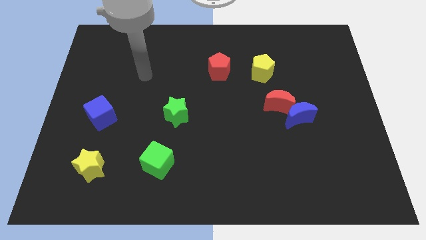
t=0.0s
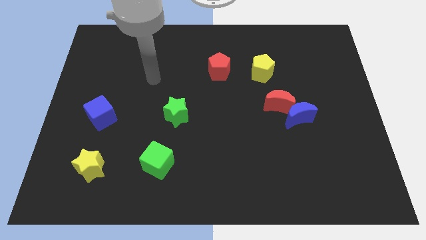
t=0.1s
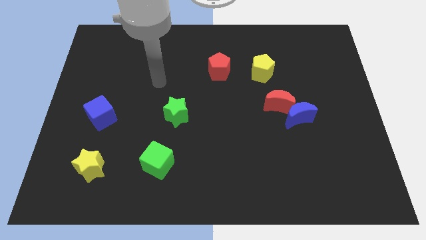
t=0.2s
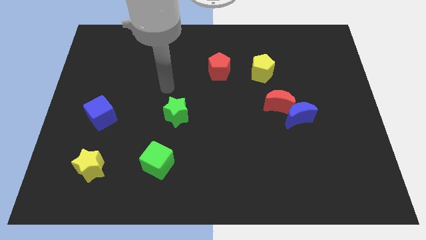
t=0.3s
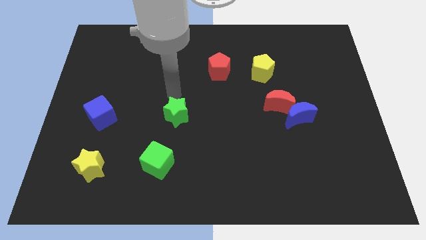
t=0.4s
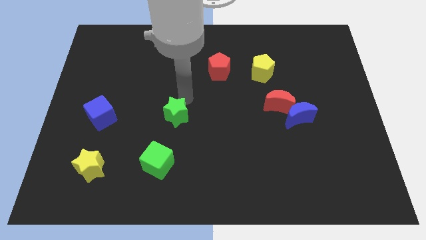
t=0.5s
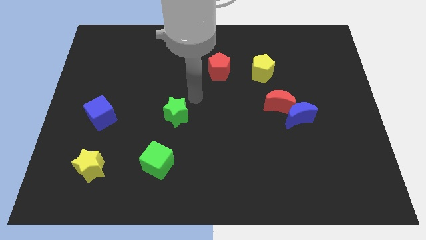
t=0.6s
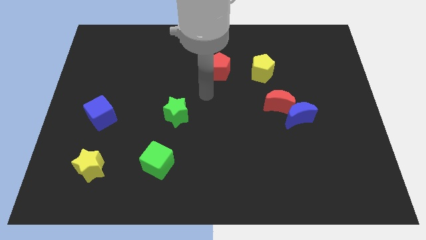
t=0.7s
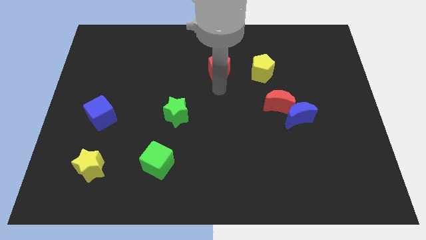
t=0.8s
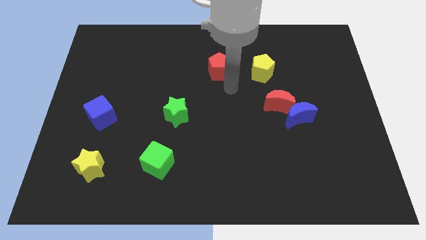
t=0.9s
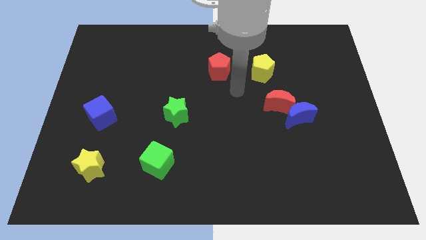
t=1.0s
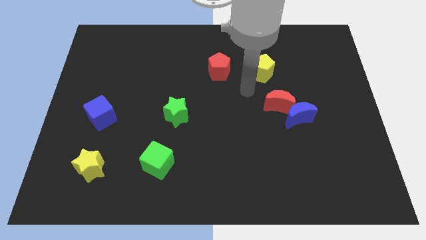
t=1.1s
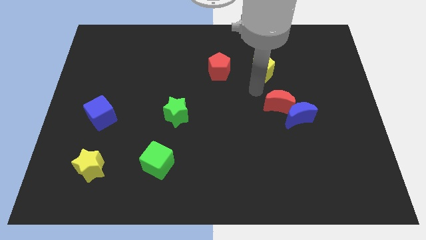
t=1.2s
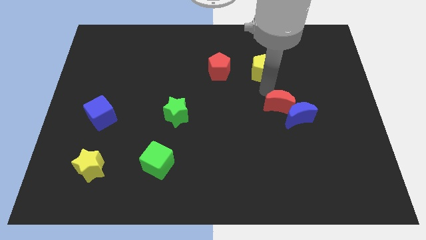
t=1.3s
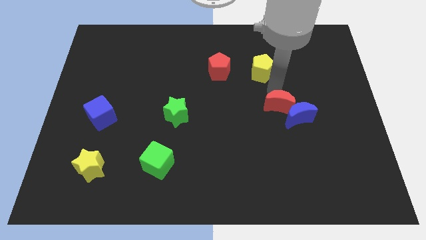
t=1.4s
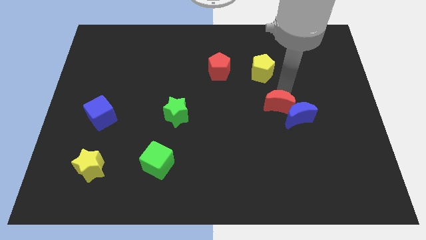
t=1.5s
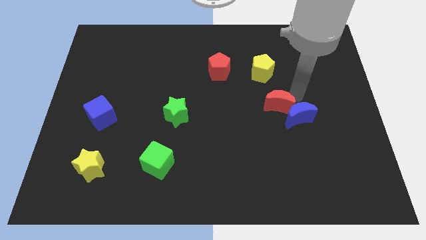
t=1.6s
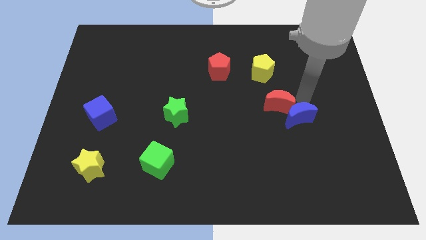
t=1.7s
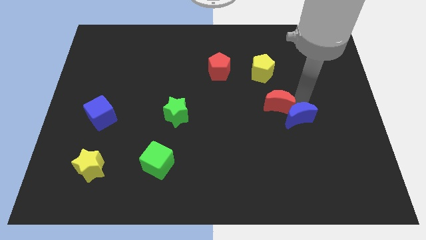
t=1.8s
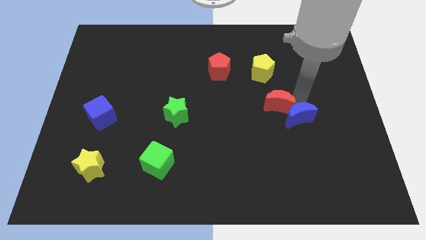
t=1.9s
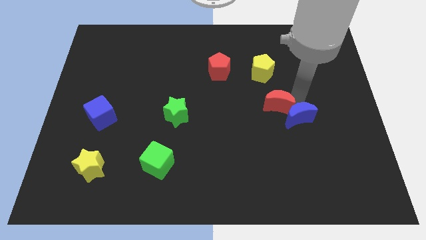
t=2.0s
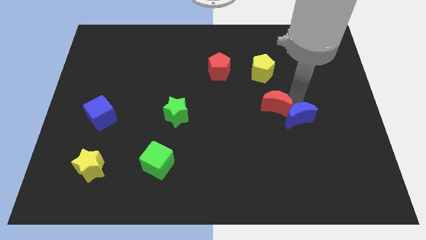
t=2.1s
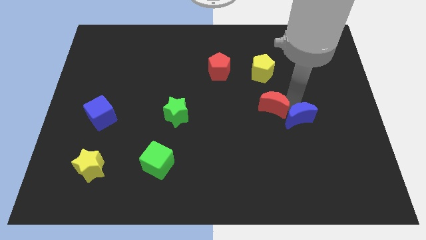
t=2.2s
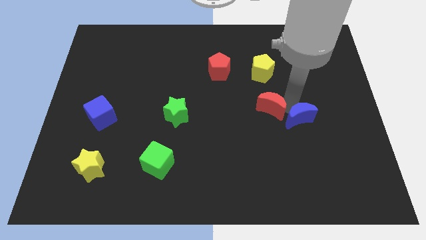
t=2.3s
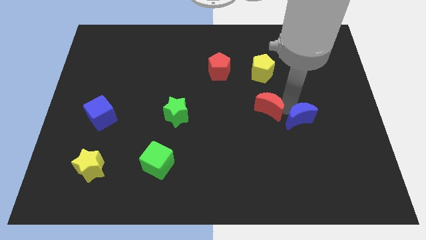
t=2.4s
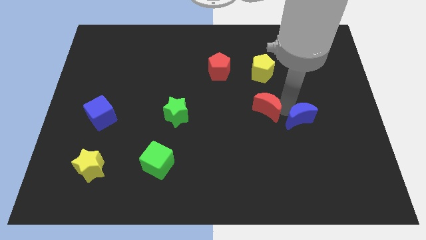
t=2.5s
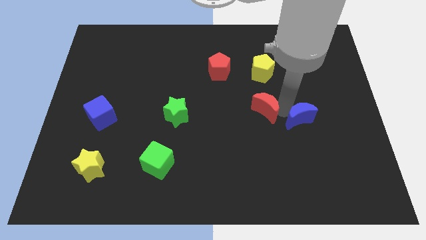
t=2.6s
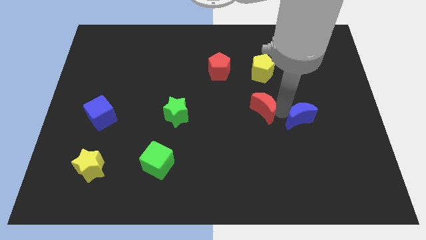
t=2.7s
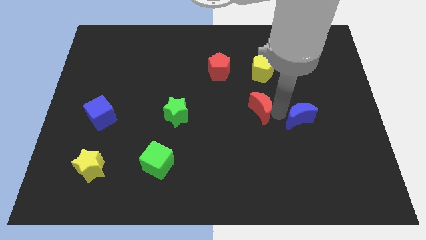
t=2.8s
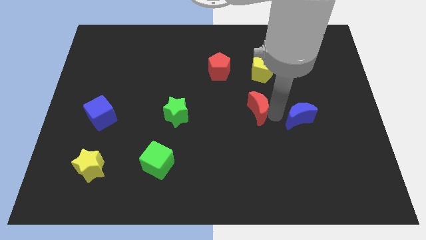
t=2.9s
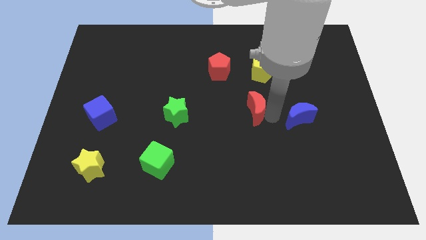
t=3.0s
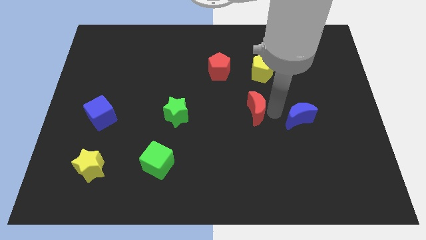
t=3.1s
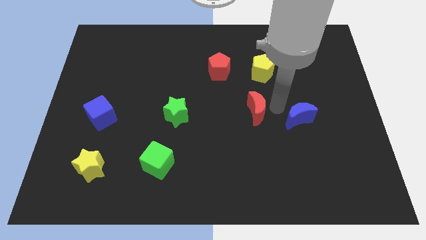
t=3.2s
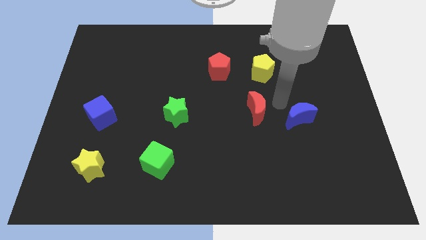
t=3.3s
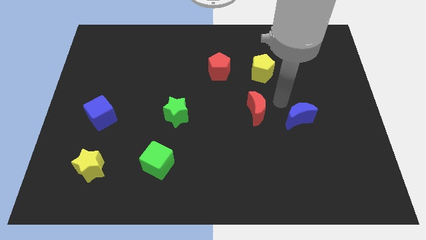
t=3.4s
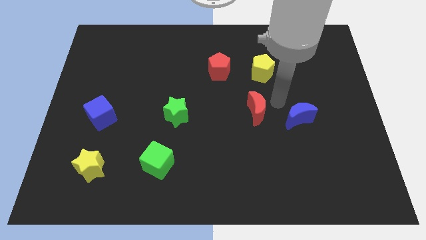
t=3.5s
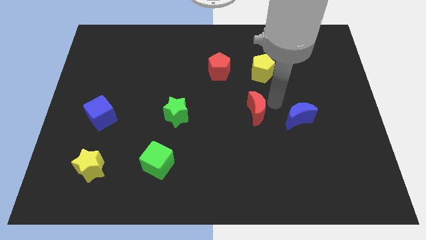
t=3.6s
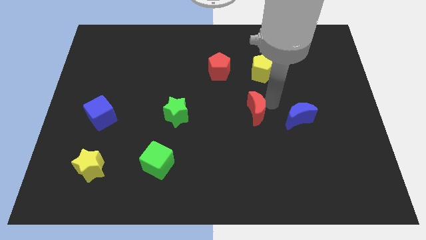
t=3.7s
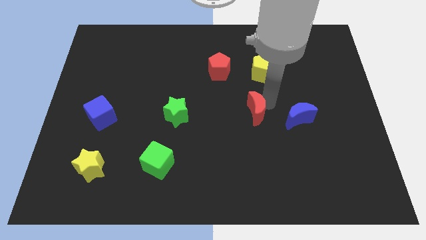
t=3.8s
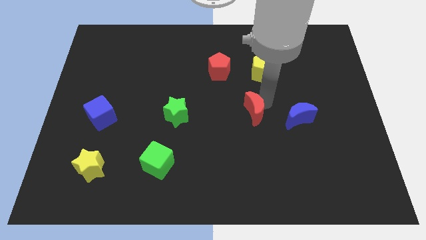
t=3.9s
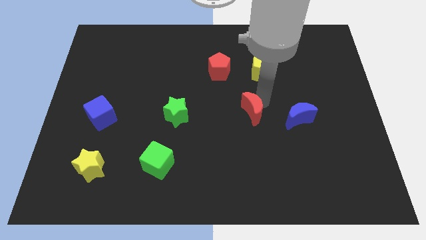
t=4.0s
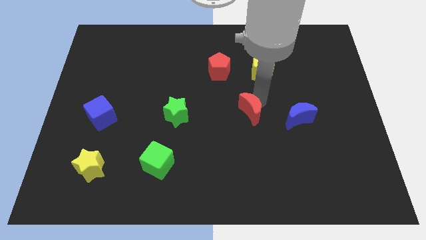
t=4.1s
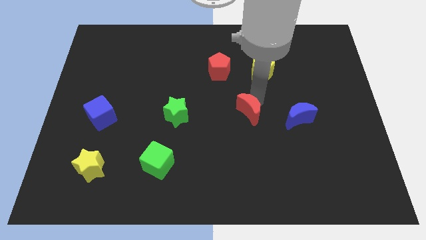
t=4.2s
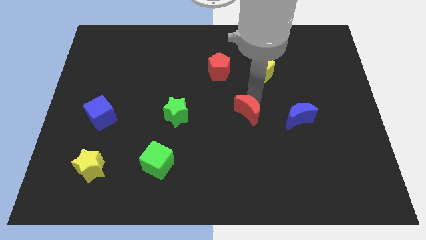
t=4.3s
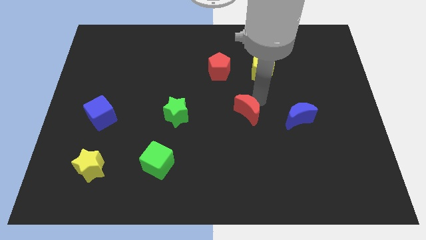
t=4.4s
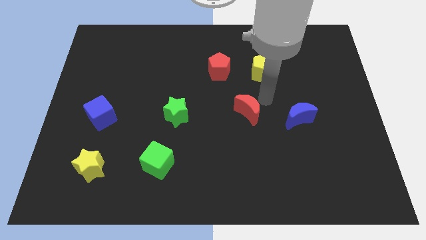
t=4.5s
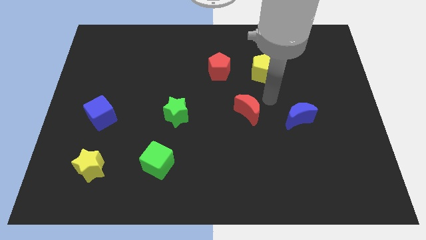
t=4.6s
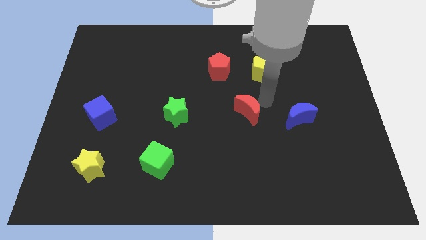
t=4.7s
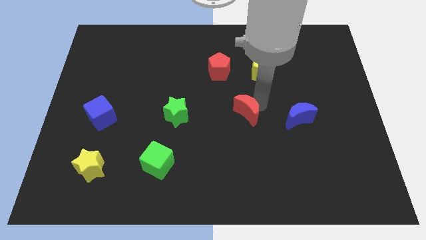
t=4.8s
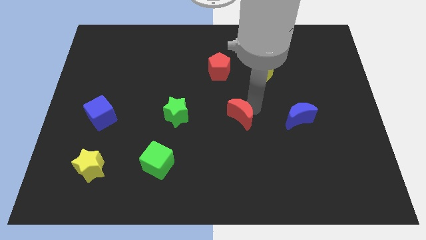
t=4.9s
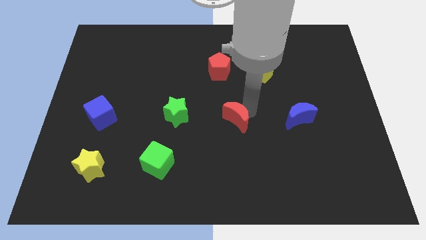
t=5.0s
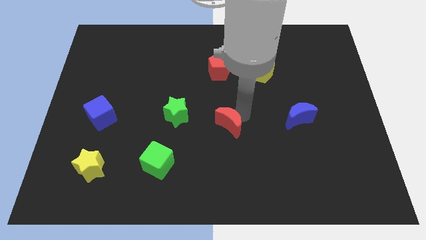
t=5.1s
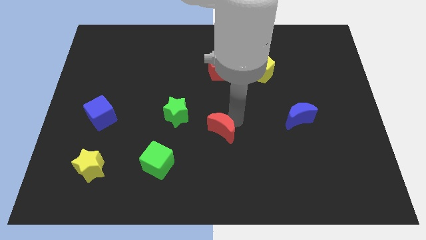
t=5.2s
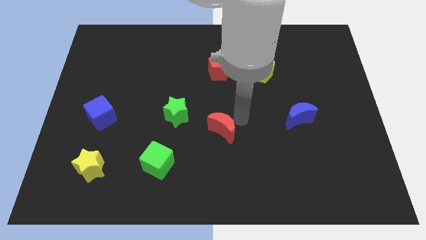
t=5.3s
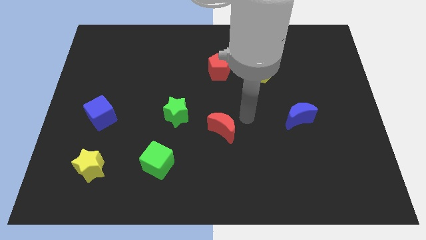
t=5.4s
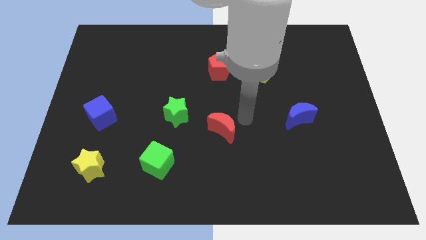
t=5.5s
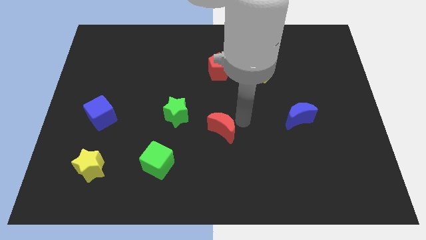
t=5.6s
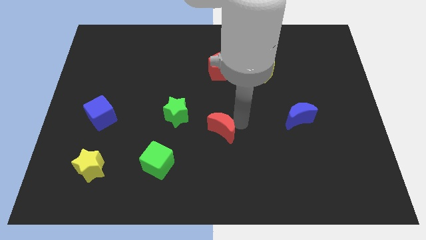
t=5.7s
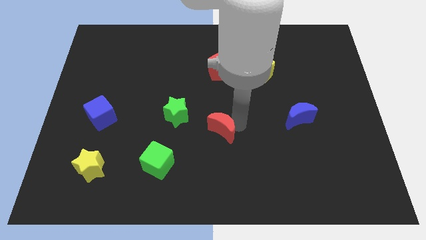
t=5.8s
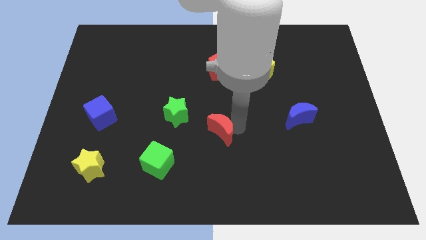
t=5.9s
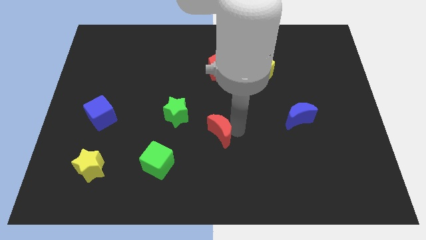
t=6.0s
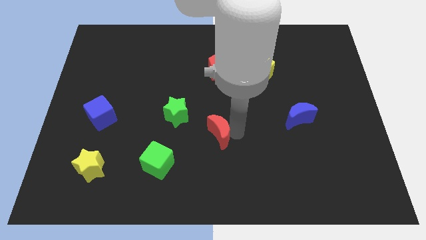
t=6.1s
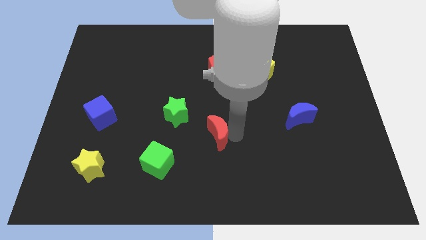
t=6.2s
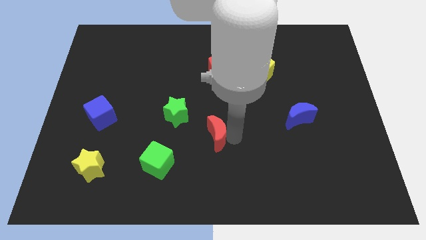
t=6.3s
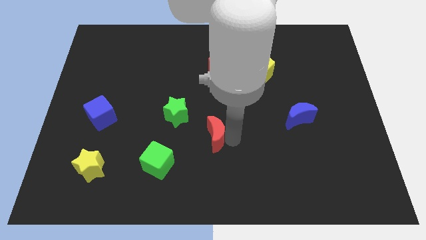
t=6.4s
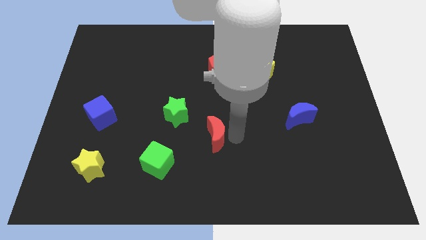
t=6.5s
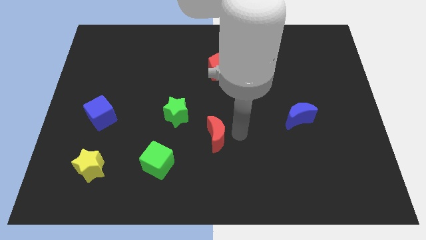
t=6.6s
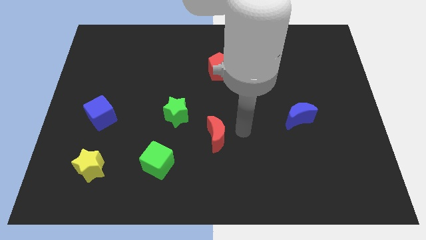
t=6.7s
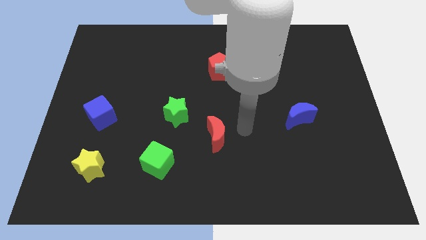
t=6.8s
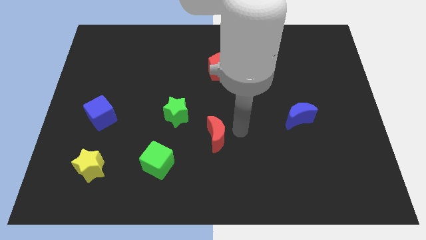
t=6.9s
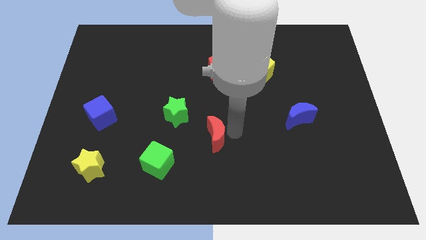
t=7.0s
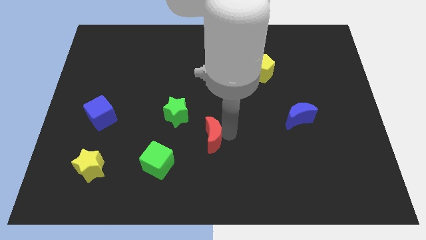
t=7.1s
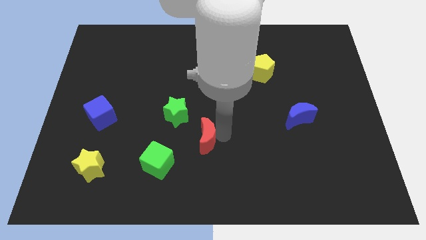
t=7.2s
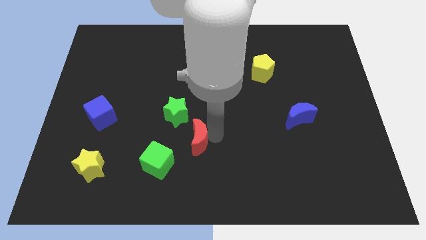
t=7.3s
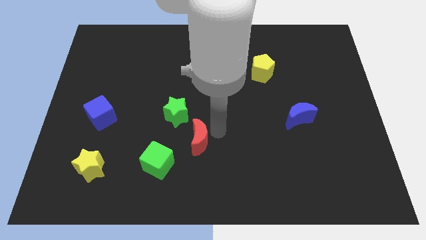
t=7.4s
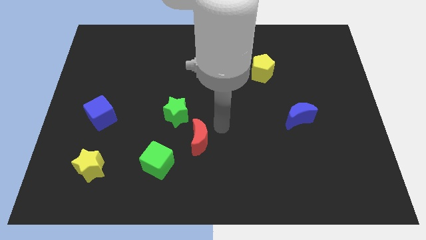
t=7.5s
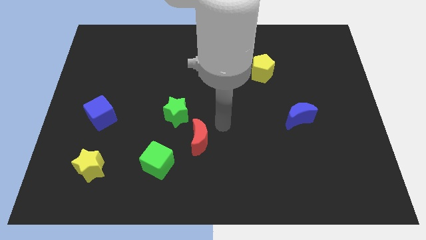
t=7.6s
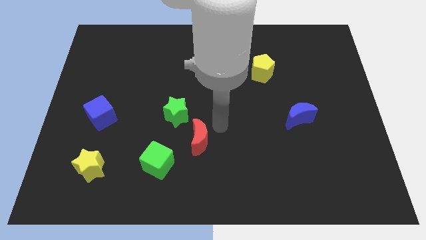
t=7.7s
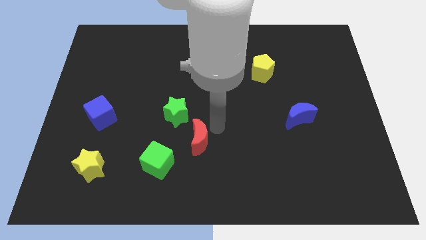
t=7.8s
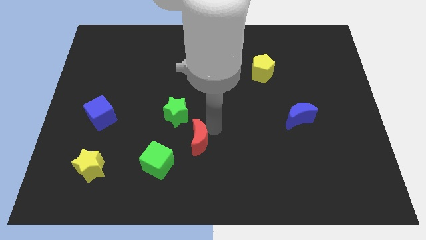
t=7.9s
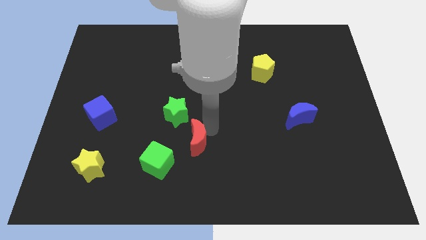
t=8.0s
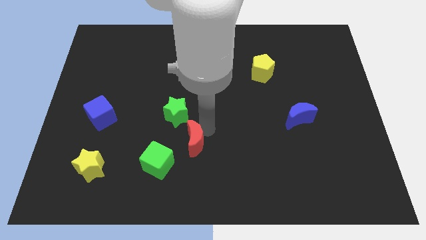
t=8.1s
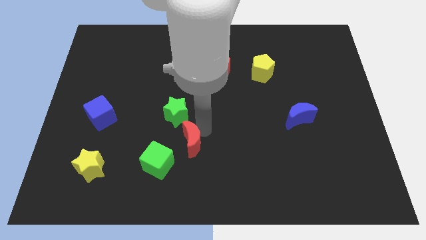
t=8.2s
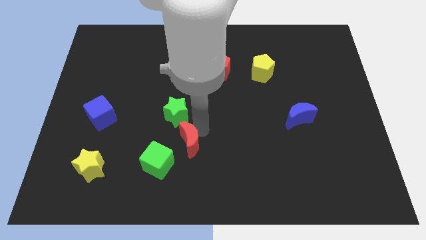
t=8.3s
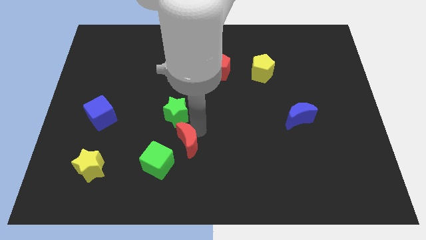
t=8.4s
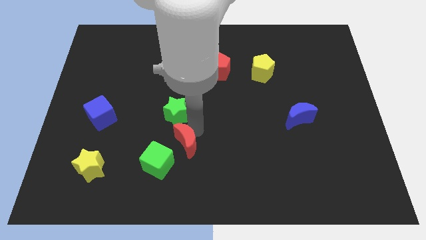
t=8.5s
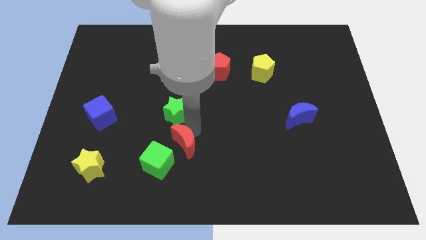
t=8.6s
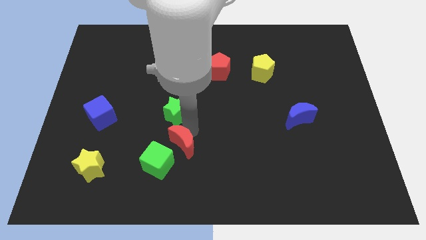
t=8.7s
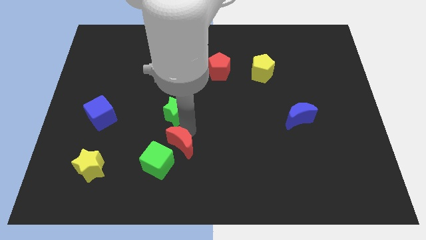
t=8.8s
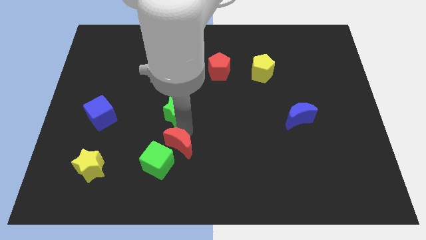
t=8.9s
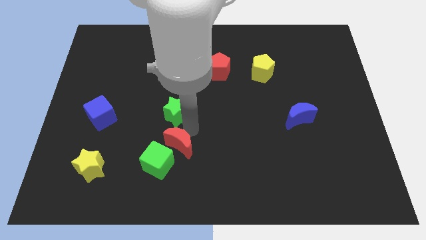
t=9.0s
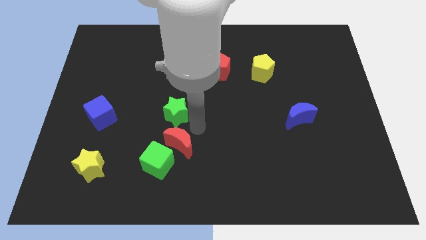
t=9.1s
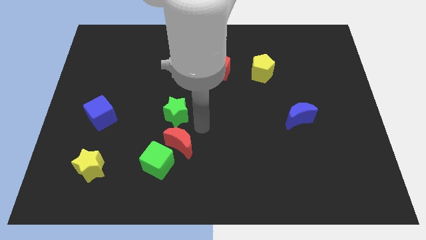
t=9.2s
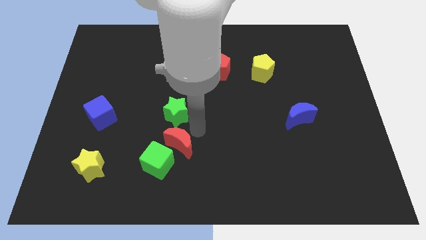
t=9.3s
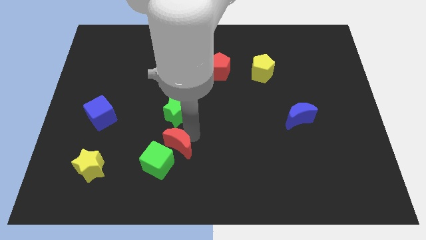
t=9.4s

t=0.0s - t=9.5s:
slide the red moon close to the green cube
